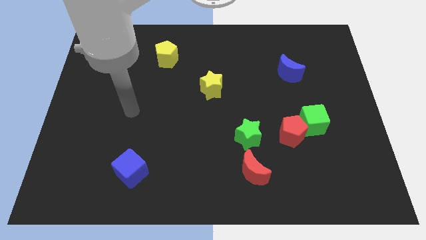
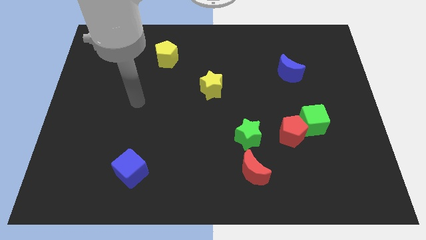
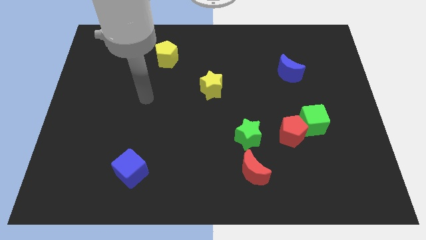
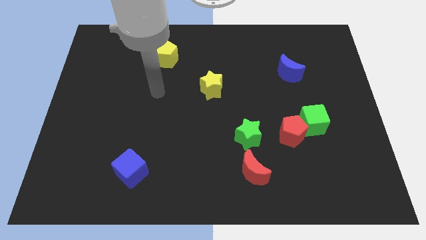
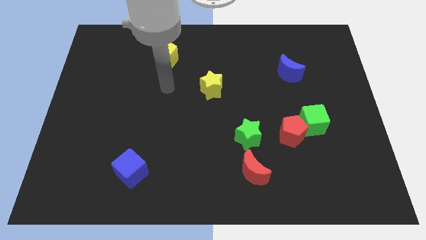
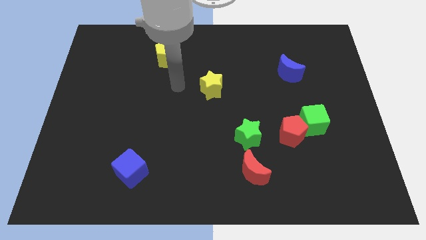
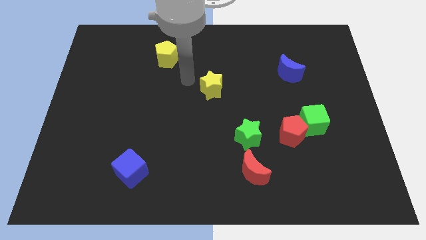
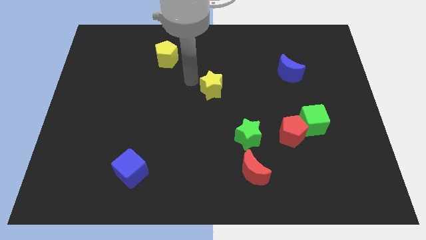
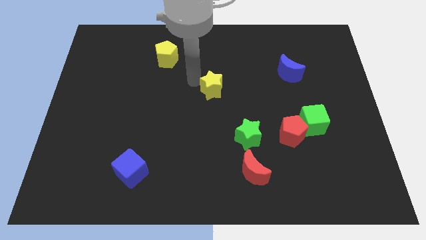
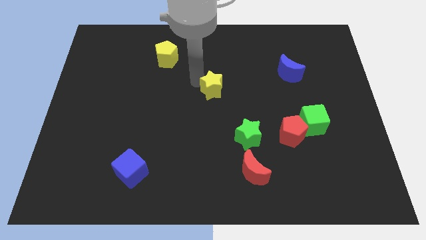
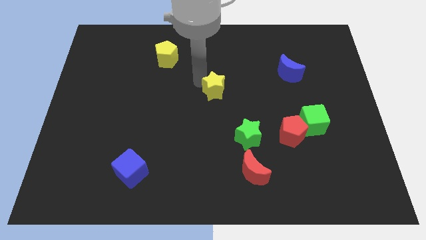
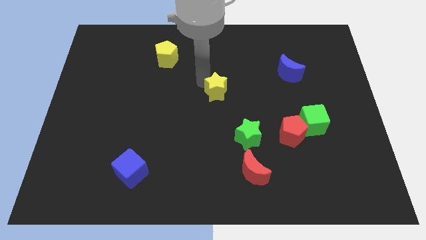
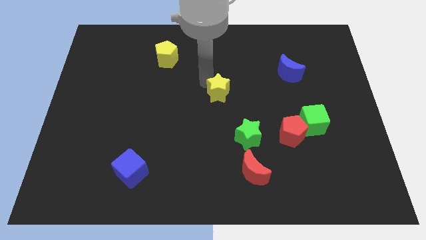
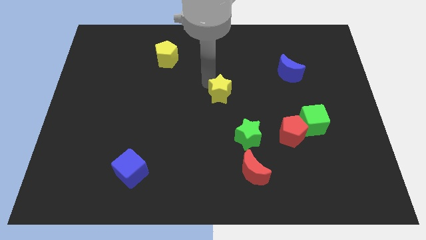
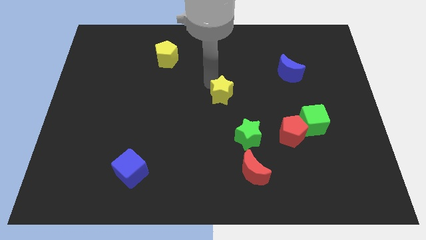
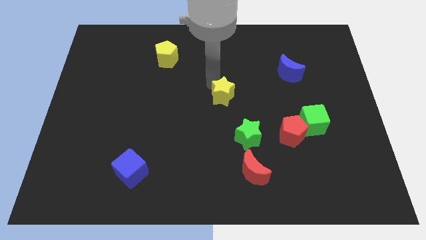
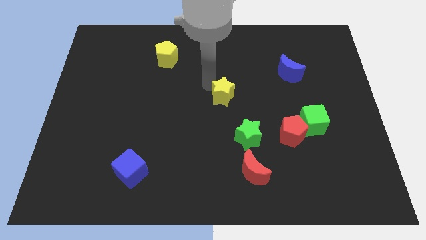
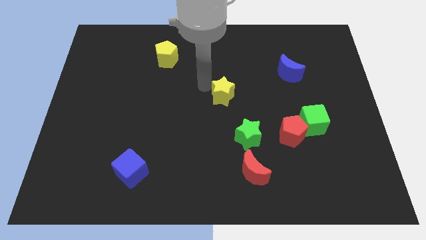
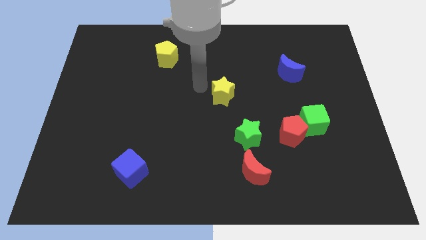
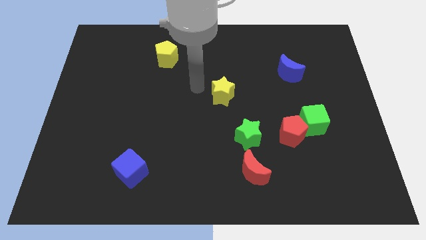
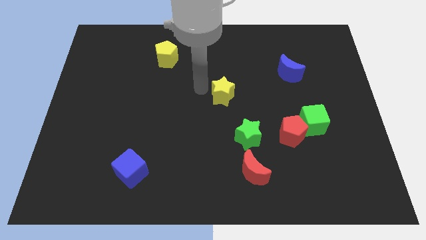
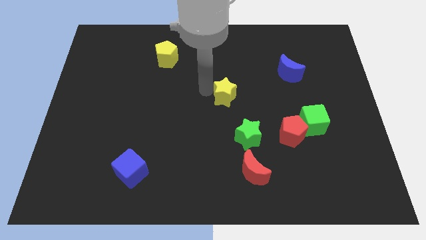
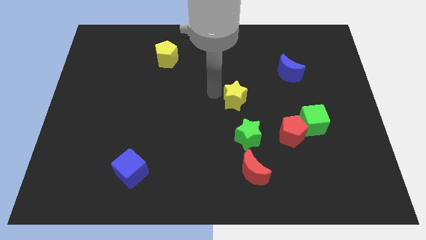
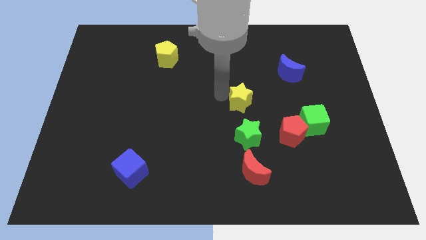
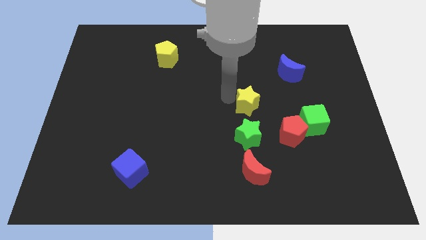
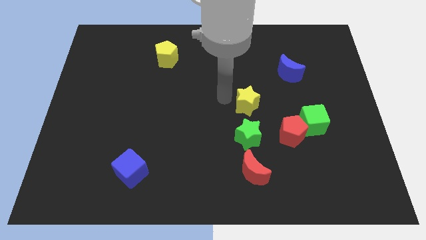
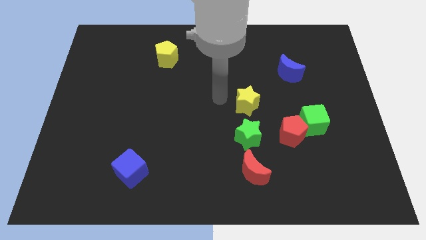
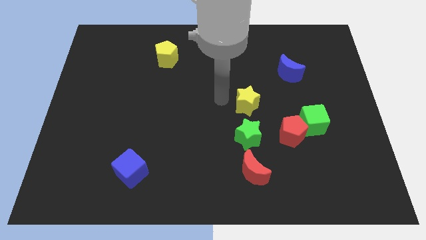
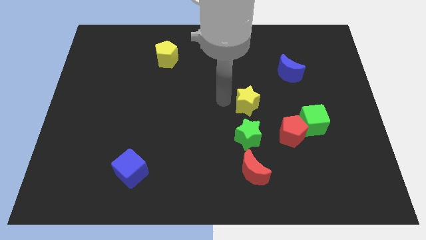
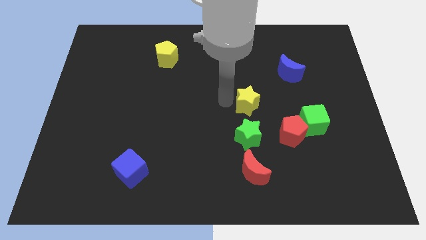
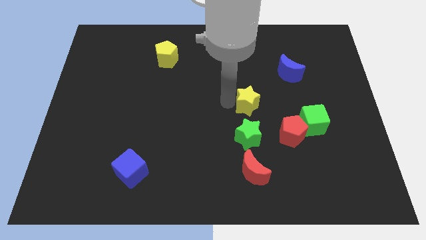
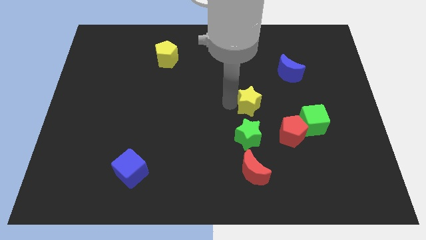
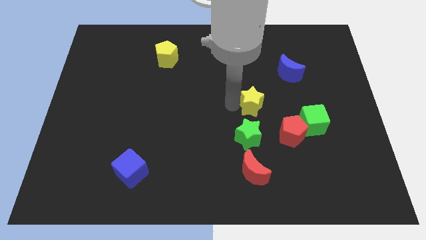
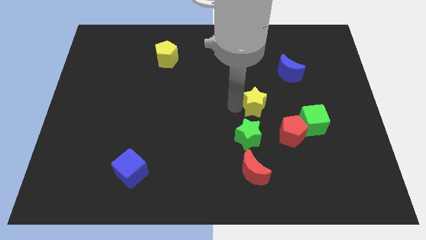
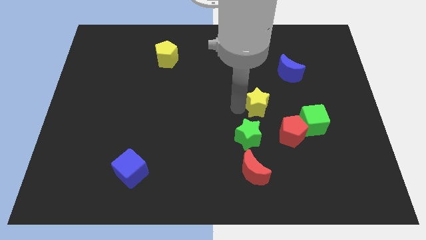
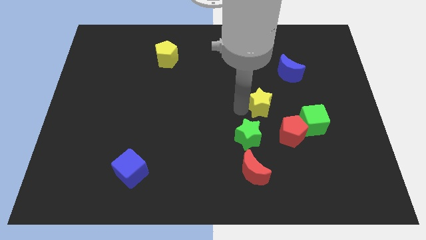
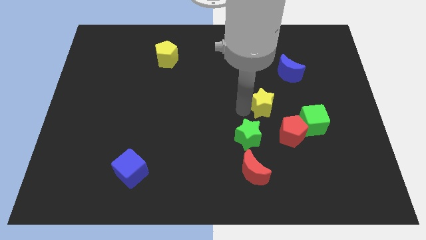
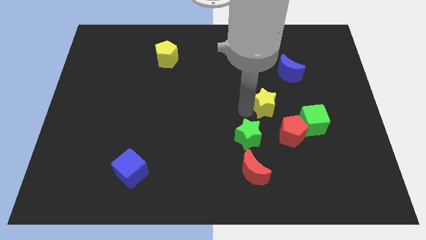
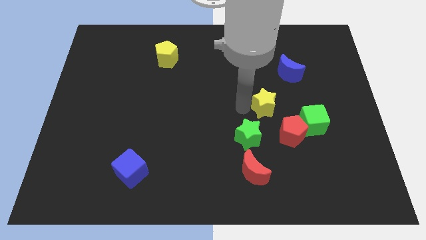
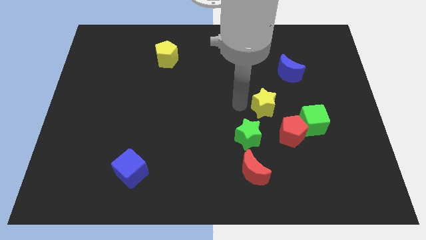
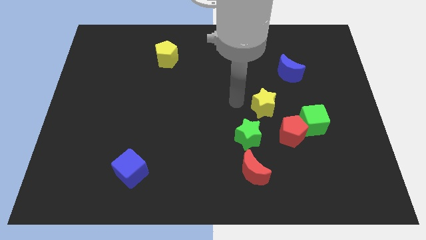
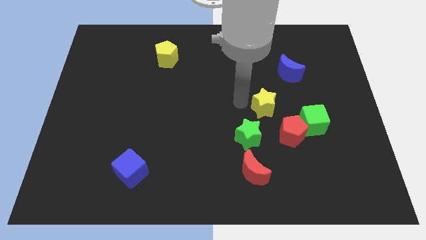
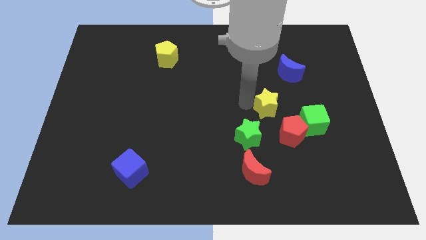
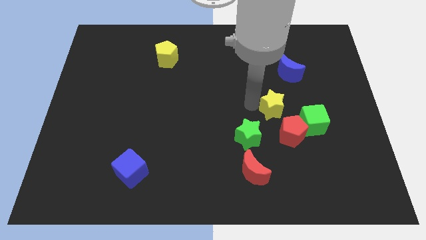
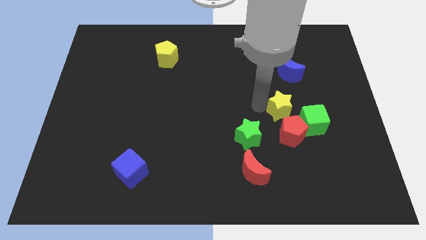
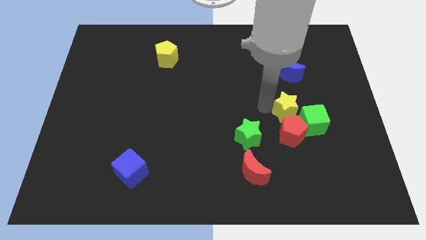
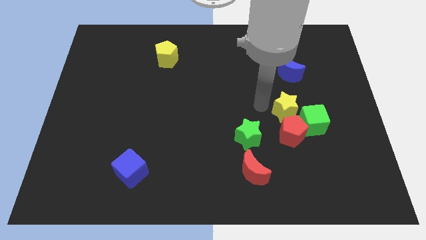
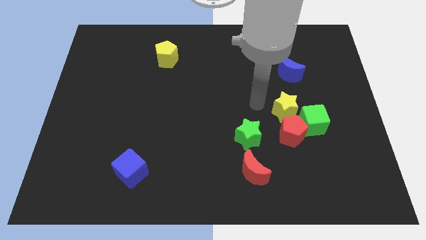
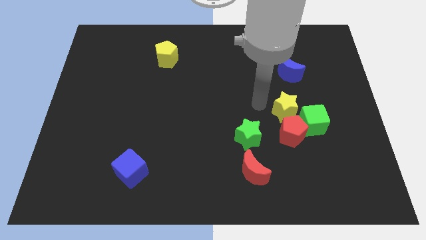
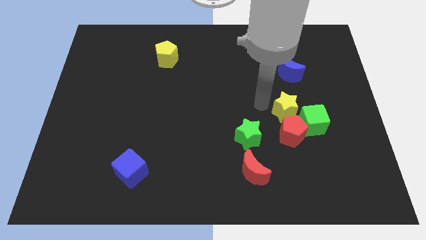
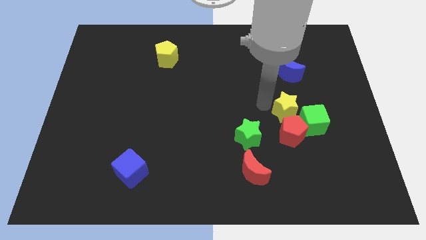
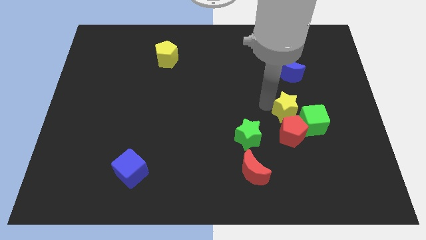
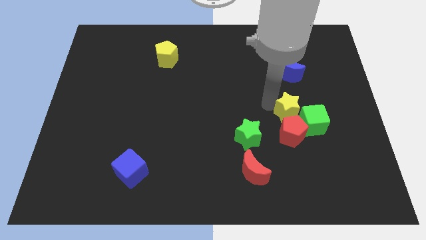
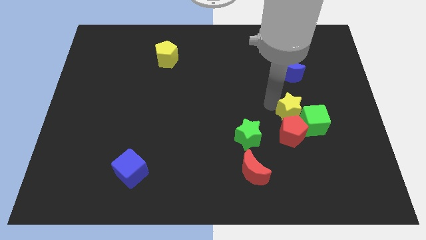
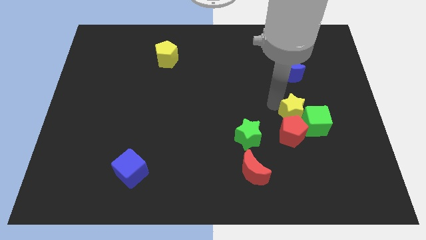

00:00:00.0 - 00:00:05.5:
push the yellow star close to the green cube

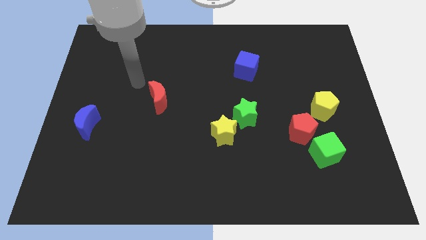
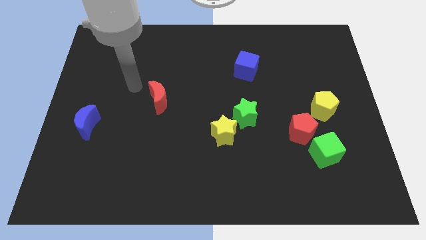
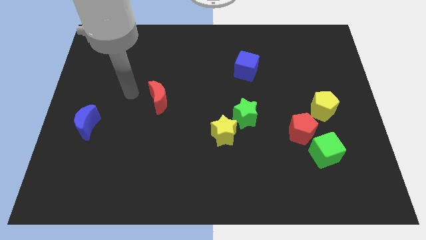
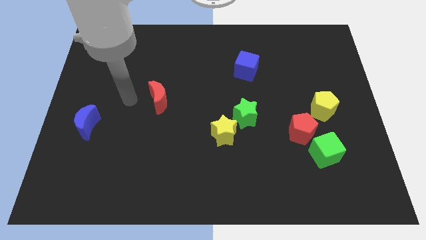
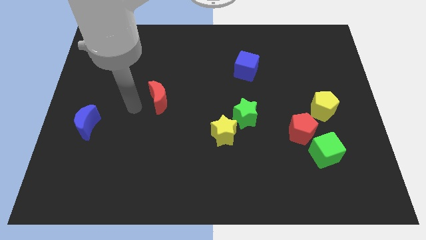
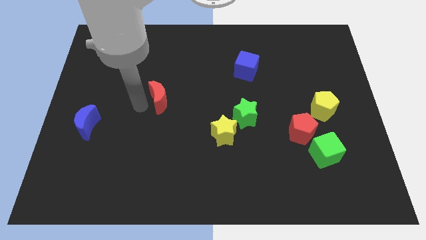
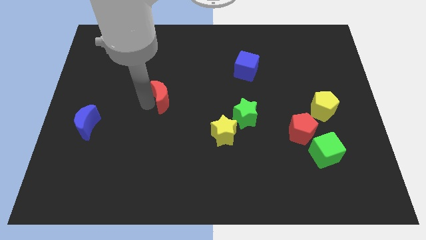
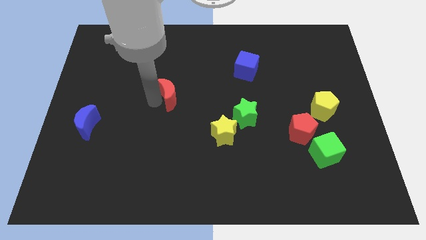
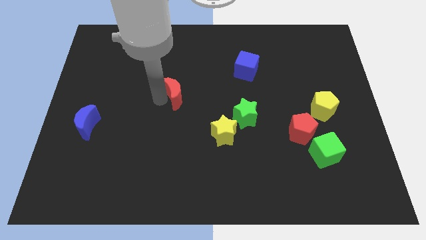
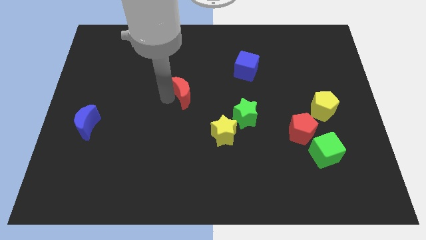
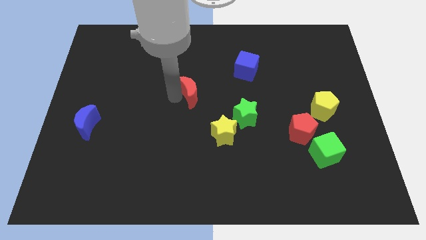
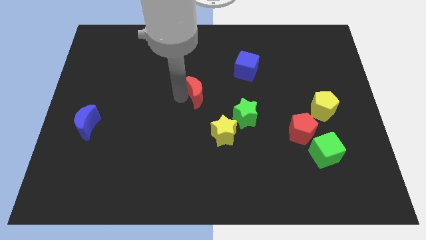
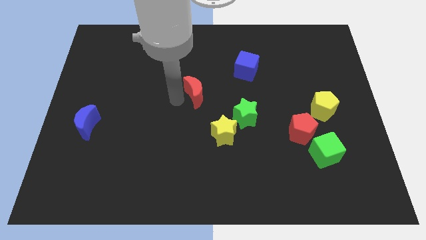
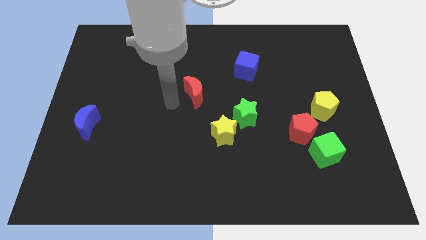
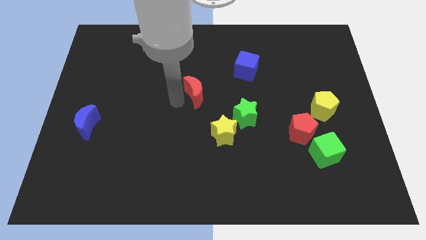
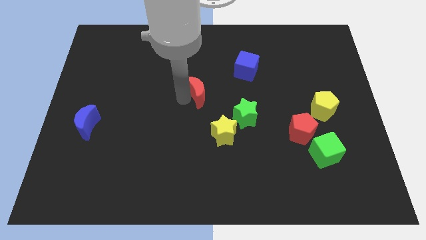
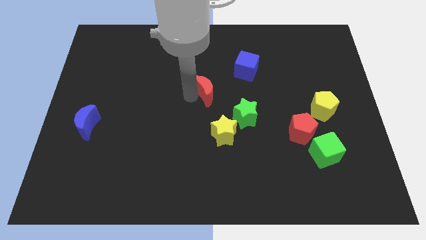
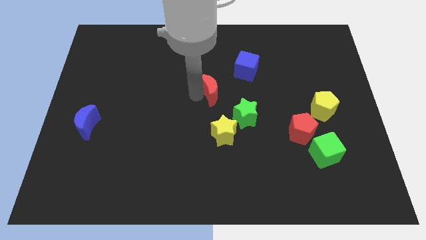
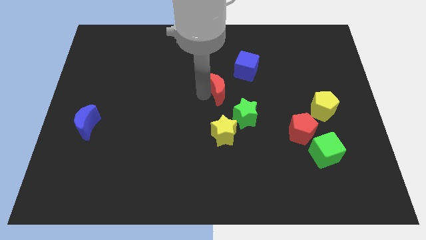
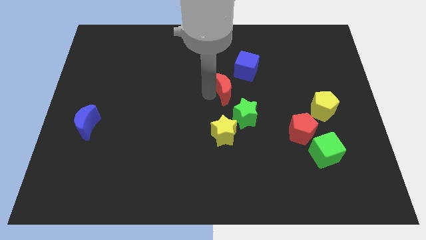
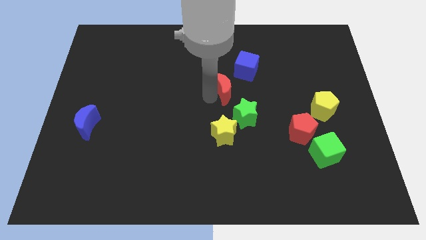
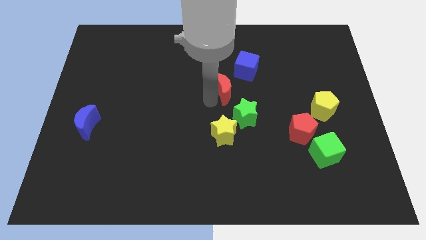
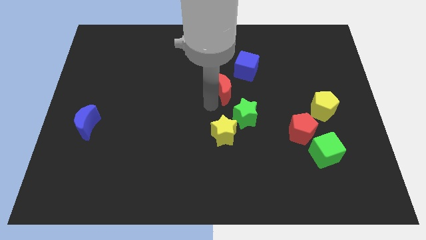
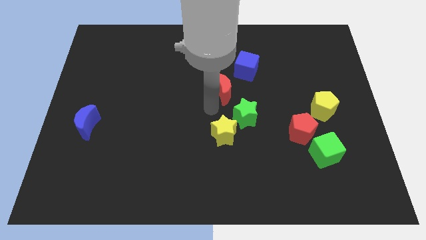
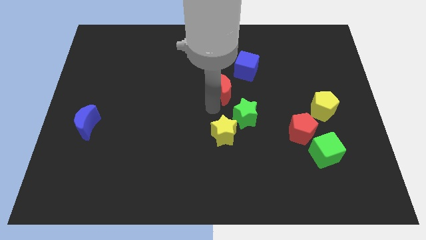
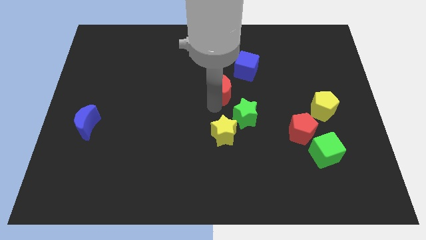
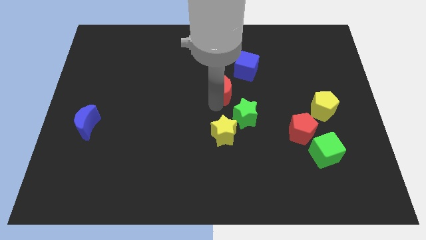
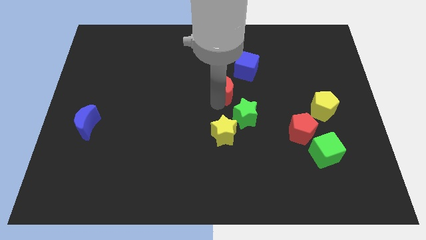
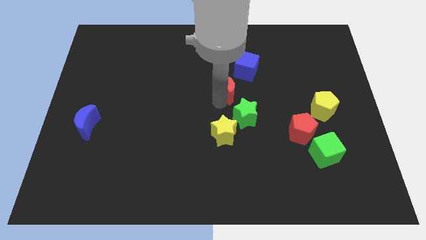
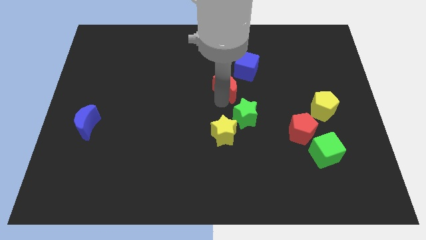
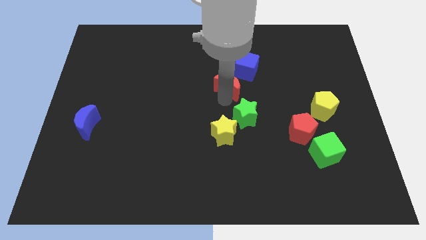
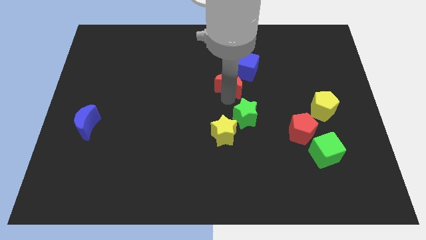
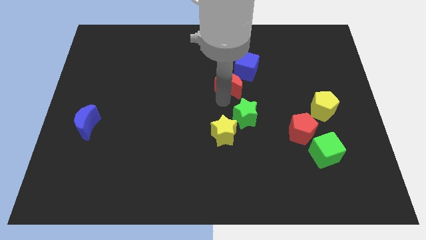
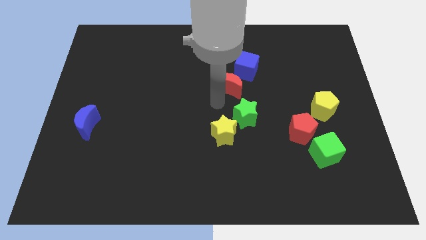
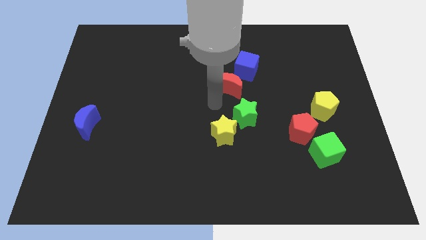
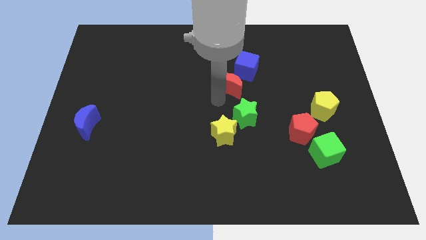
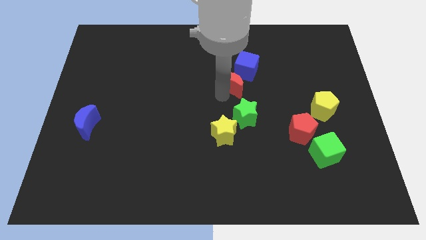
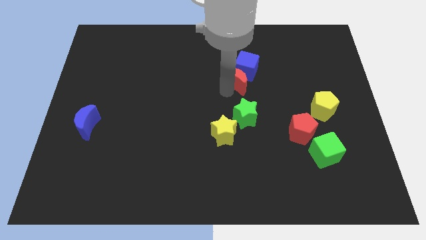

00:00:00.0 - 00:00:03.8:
push the red moon close to the blue cube
